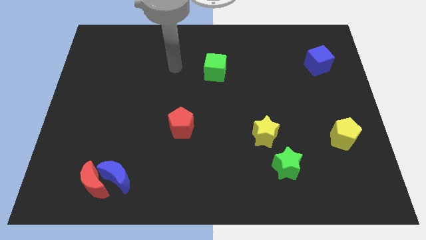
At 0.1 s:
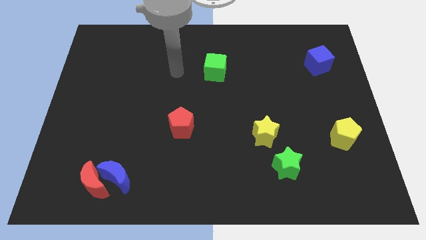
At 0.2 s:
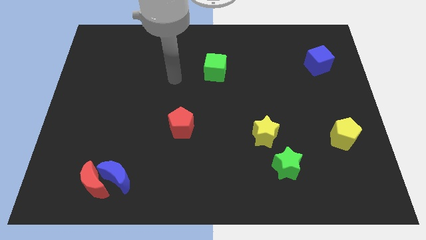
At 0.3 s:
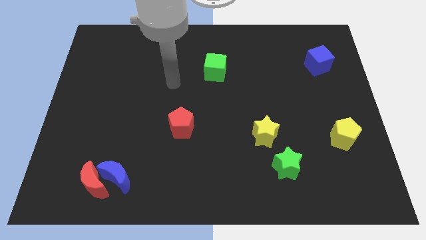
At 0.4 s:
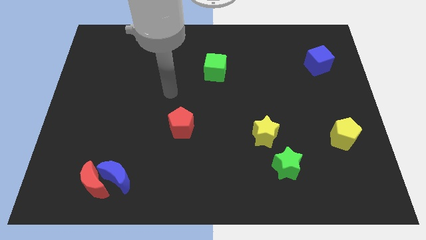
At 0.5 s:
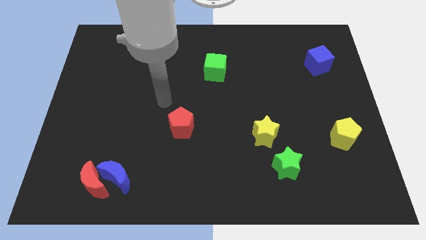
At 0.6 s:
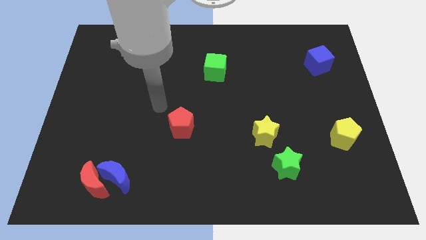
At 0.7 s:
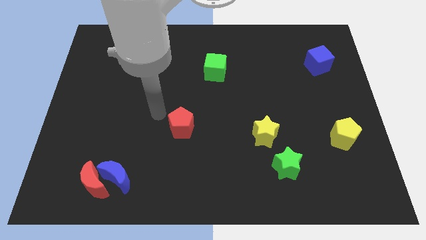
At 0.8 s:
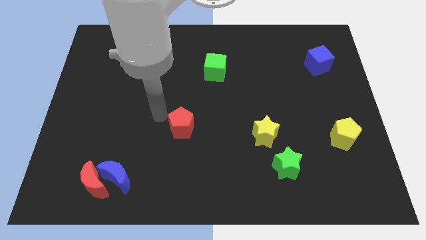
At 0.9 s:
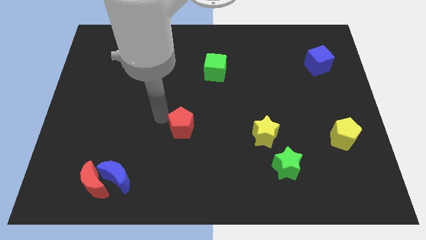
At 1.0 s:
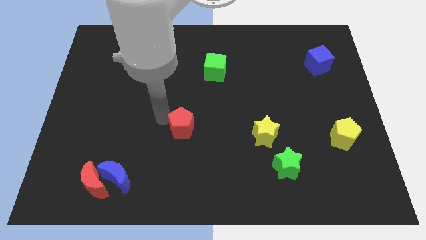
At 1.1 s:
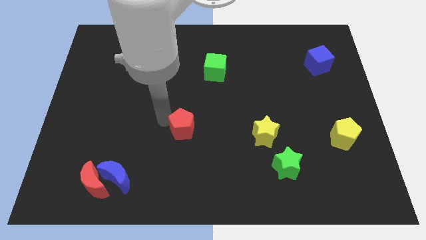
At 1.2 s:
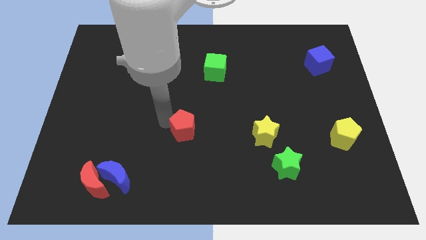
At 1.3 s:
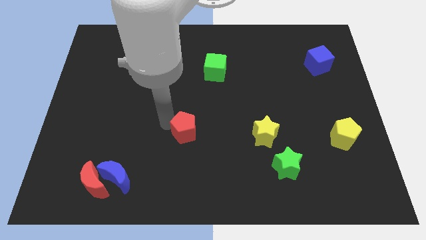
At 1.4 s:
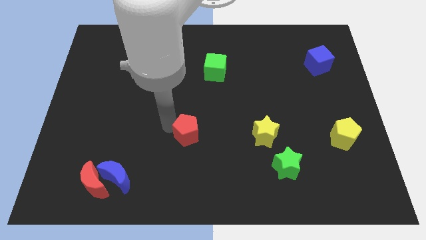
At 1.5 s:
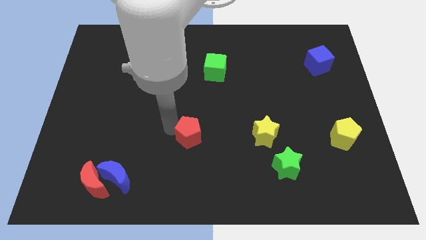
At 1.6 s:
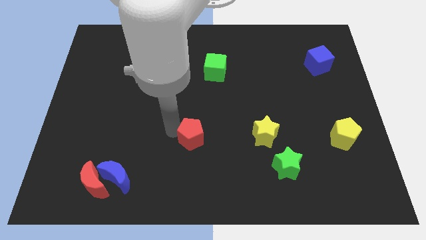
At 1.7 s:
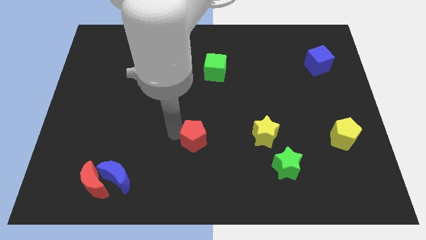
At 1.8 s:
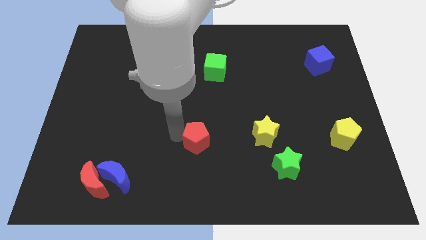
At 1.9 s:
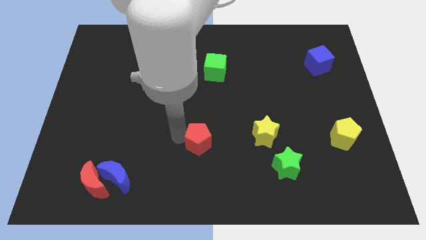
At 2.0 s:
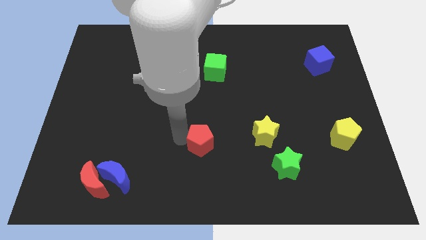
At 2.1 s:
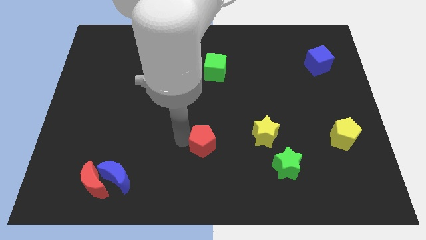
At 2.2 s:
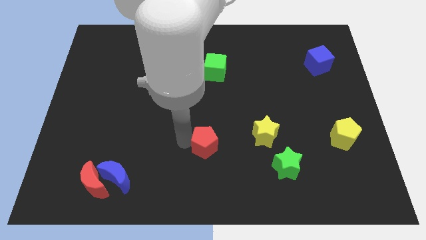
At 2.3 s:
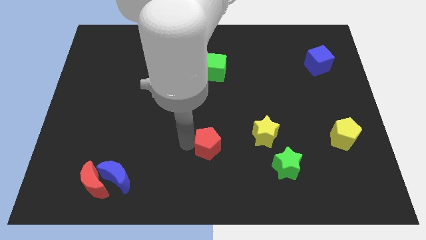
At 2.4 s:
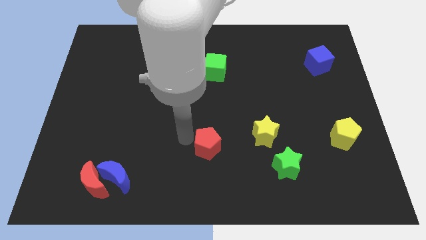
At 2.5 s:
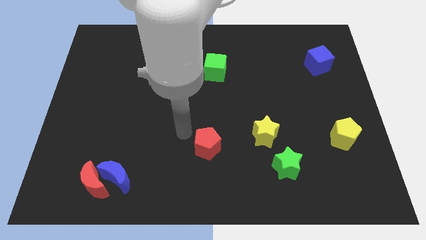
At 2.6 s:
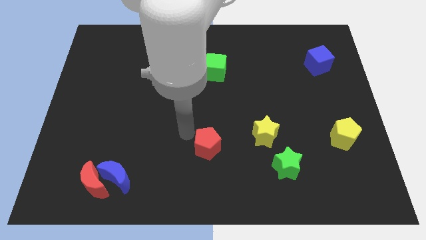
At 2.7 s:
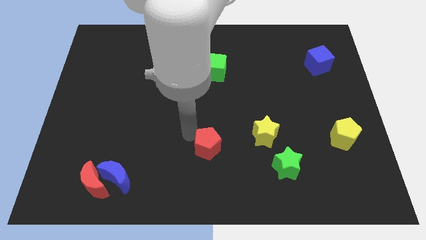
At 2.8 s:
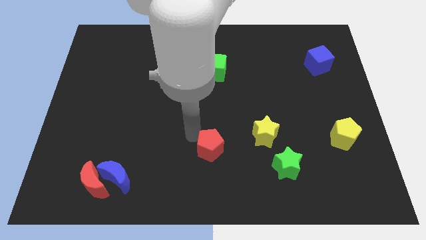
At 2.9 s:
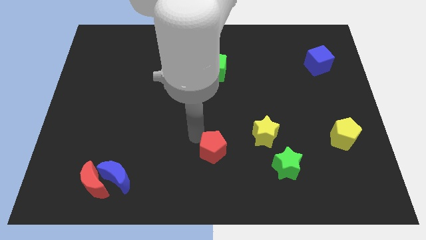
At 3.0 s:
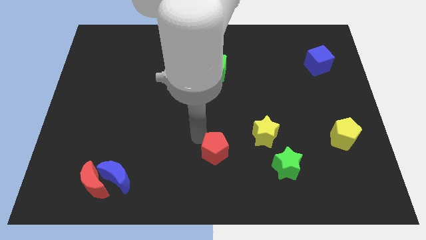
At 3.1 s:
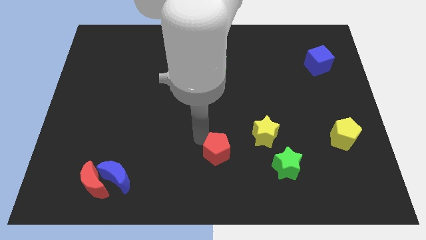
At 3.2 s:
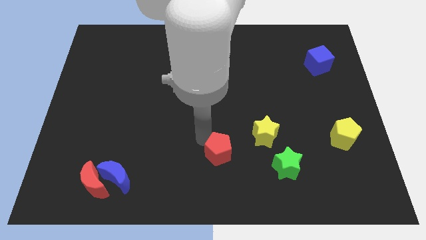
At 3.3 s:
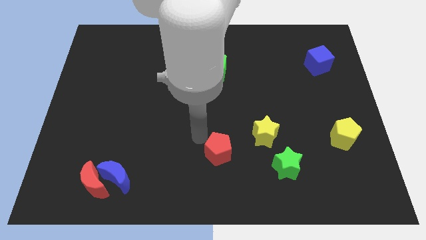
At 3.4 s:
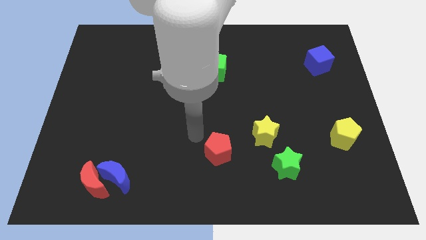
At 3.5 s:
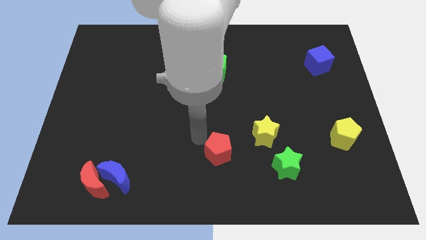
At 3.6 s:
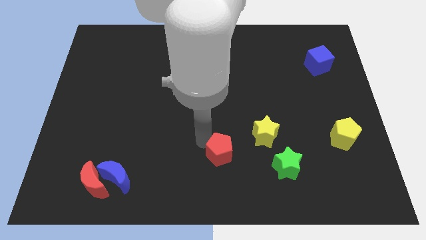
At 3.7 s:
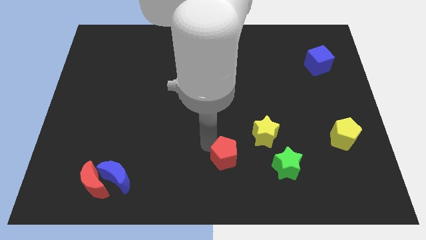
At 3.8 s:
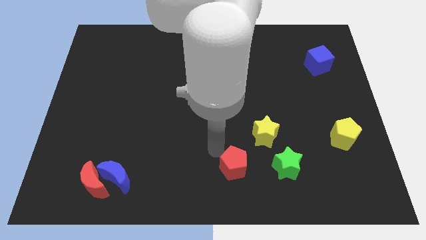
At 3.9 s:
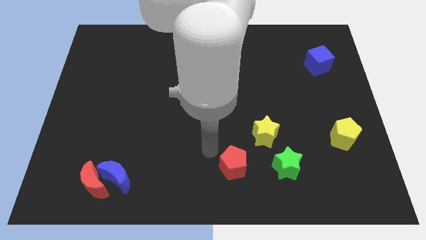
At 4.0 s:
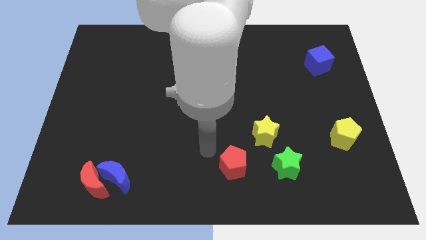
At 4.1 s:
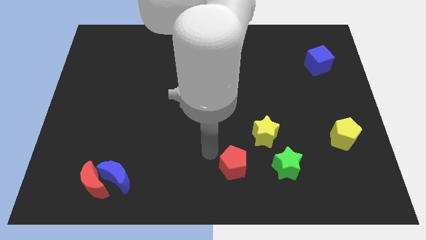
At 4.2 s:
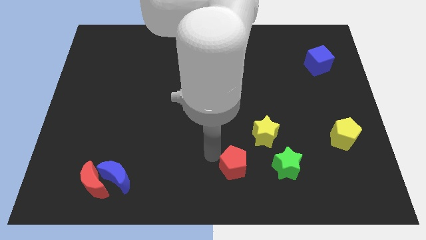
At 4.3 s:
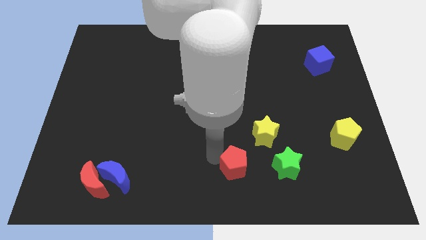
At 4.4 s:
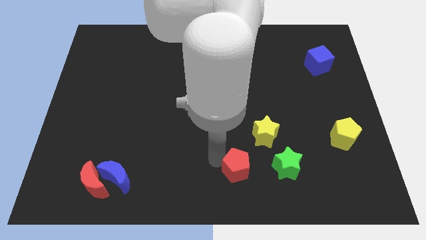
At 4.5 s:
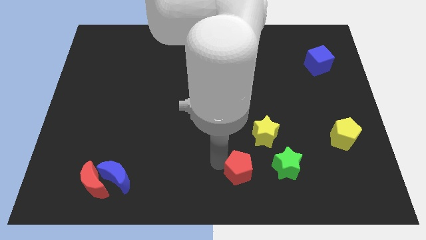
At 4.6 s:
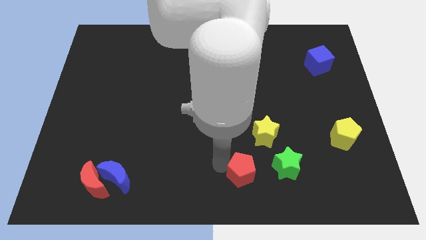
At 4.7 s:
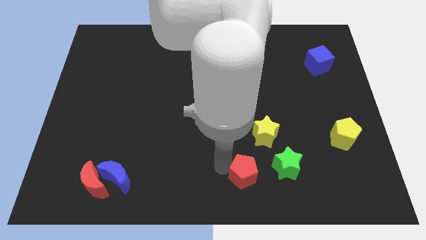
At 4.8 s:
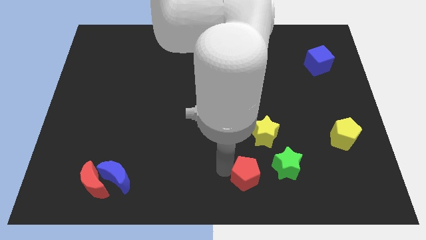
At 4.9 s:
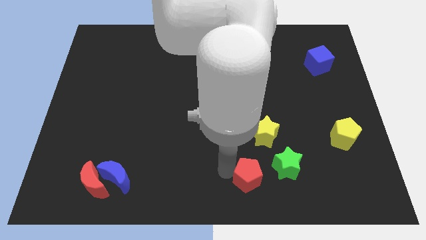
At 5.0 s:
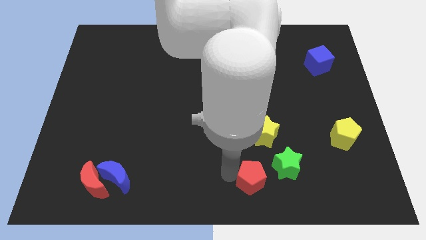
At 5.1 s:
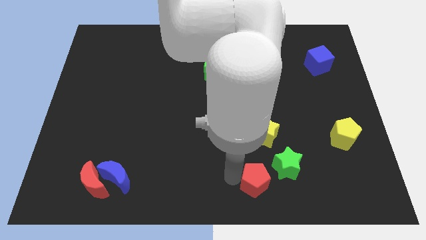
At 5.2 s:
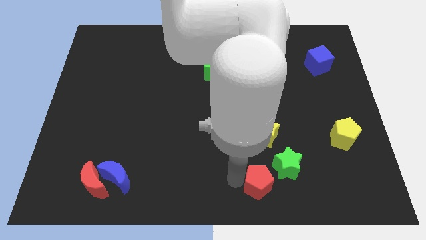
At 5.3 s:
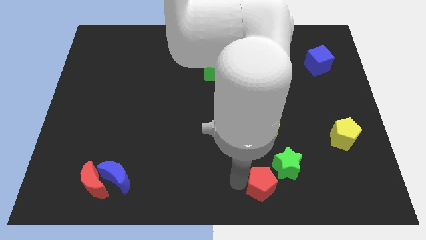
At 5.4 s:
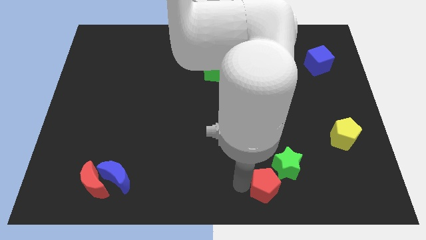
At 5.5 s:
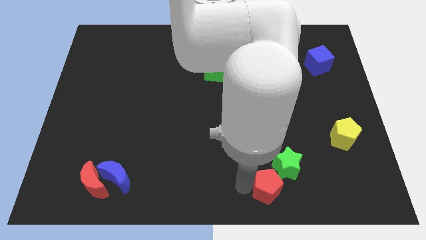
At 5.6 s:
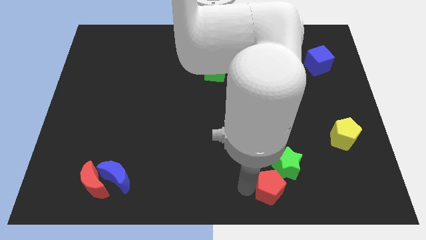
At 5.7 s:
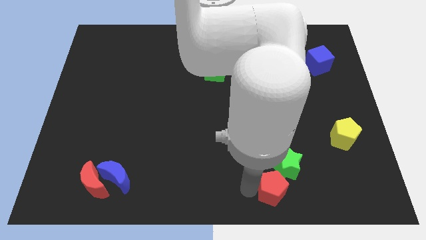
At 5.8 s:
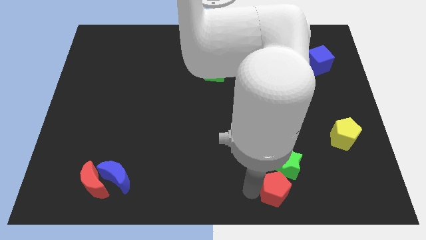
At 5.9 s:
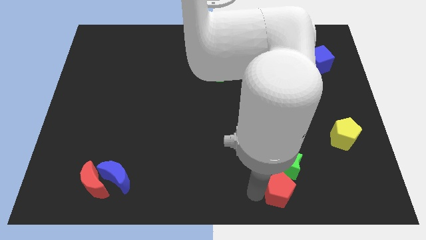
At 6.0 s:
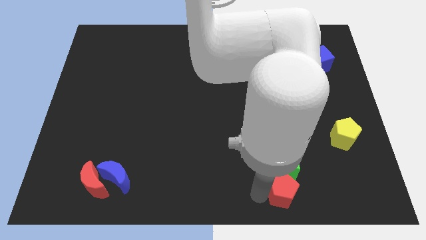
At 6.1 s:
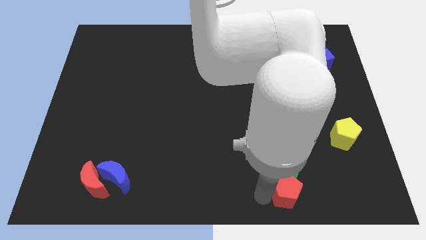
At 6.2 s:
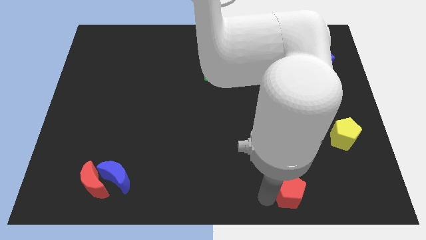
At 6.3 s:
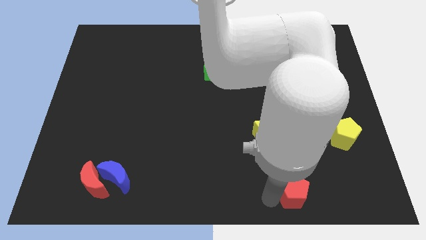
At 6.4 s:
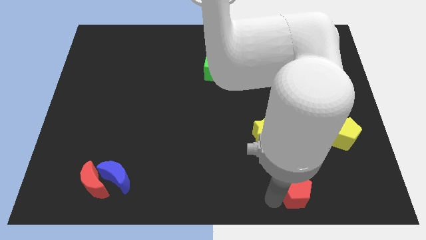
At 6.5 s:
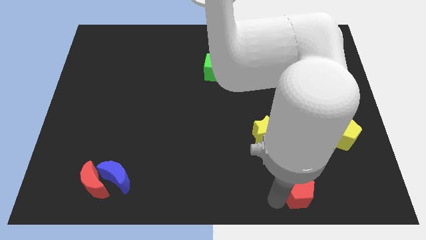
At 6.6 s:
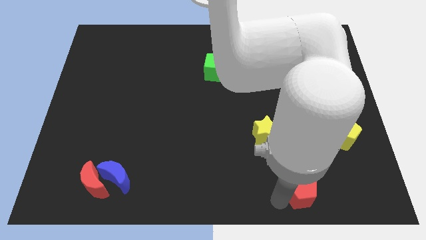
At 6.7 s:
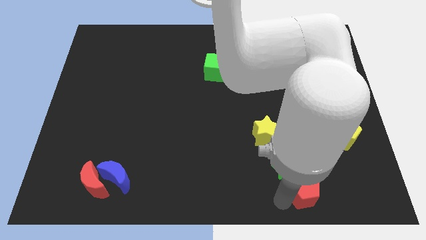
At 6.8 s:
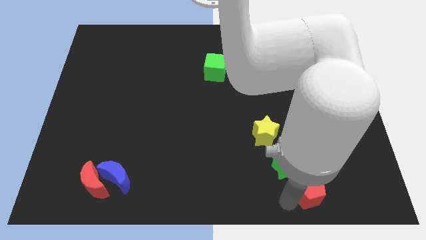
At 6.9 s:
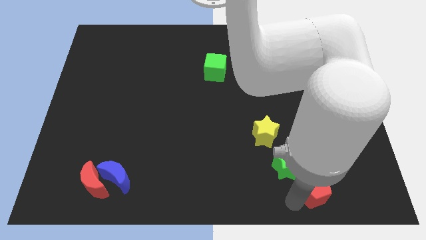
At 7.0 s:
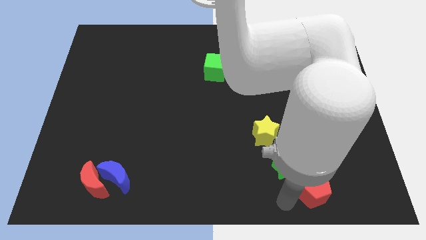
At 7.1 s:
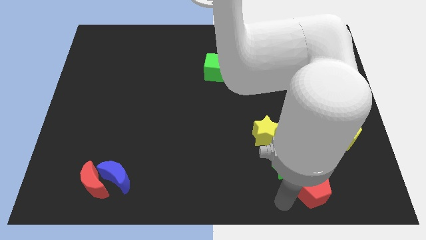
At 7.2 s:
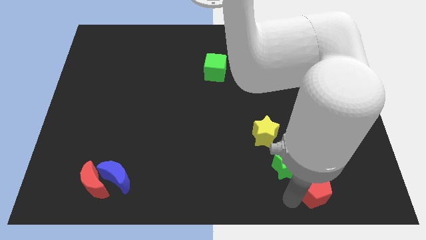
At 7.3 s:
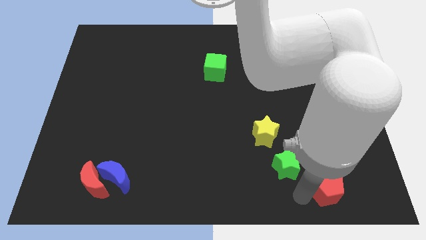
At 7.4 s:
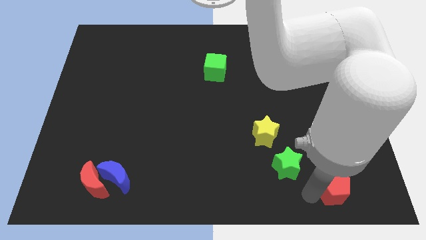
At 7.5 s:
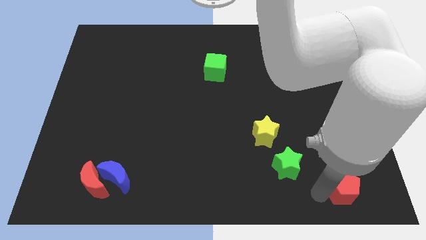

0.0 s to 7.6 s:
slide the red pentagon below the yellow pentagon

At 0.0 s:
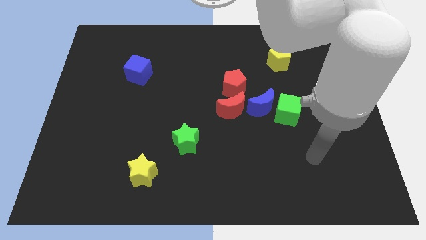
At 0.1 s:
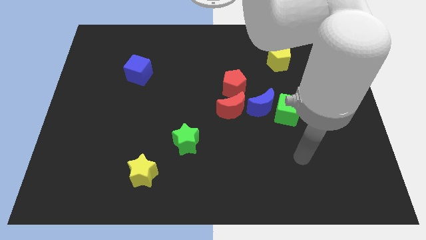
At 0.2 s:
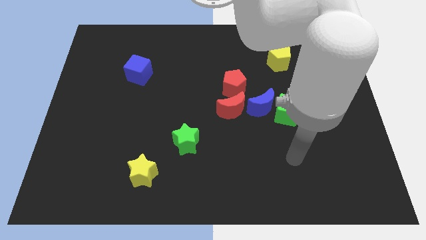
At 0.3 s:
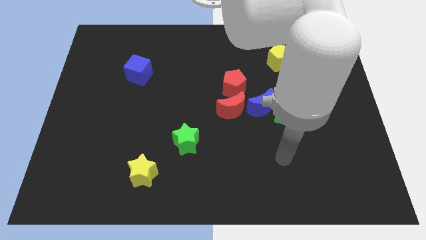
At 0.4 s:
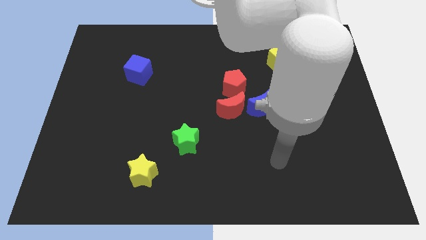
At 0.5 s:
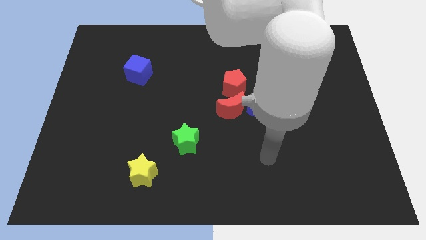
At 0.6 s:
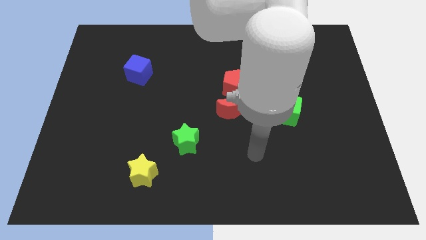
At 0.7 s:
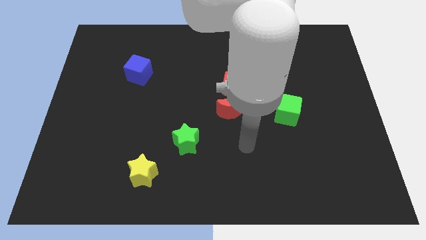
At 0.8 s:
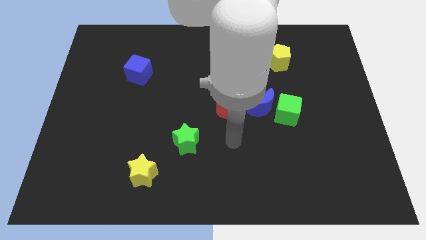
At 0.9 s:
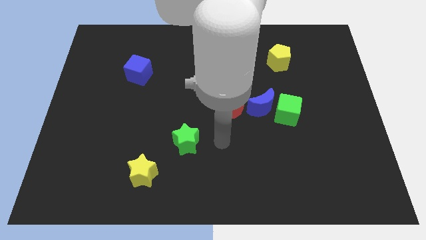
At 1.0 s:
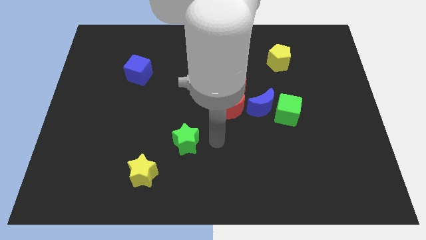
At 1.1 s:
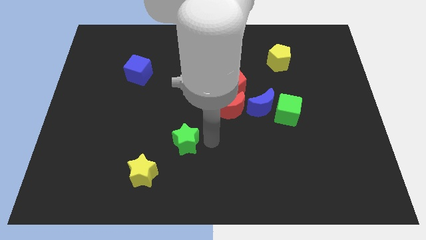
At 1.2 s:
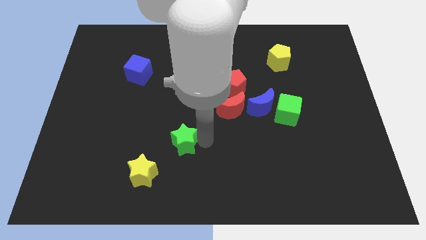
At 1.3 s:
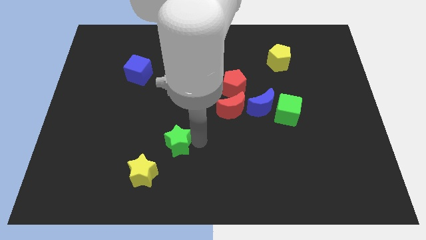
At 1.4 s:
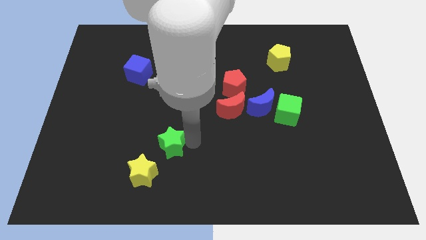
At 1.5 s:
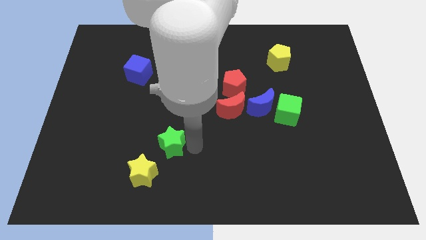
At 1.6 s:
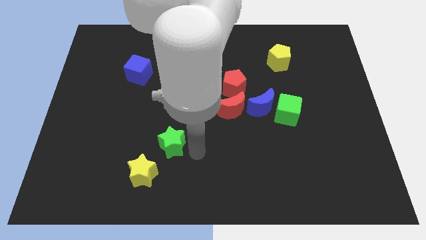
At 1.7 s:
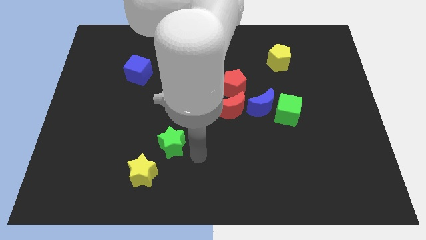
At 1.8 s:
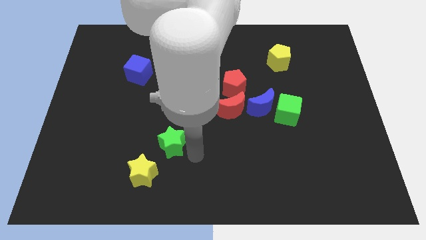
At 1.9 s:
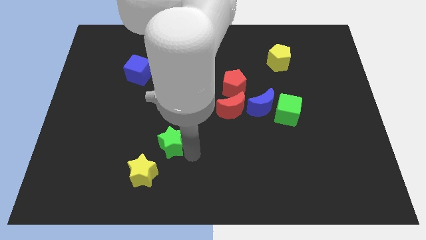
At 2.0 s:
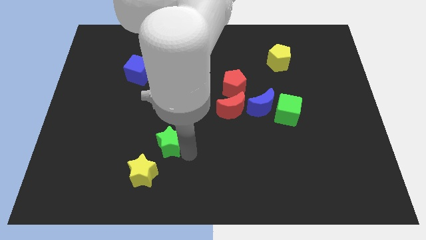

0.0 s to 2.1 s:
push the green star above the yellow star
